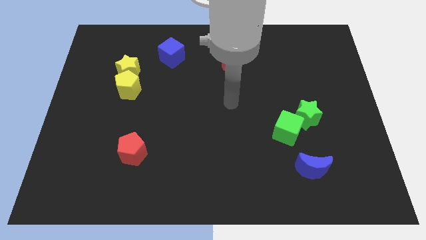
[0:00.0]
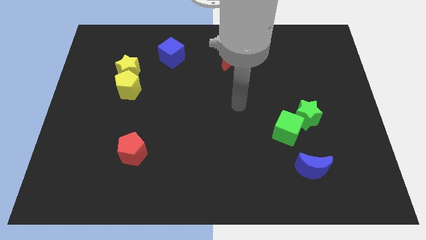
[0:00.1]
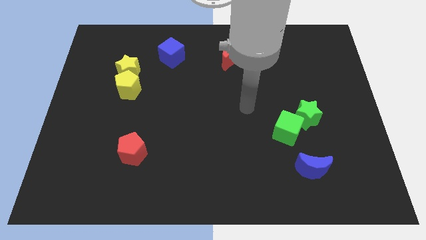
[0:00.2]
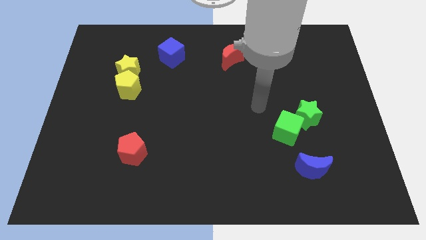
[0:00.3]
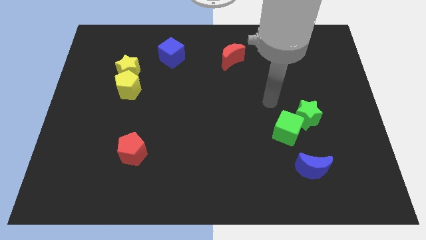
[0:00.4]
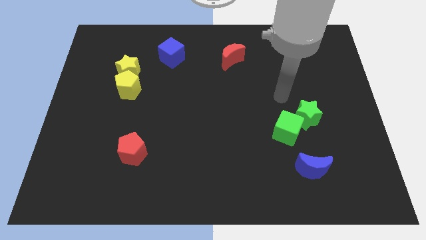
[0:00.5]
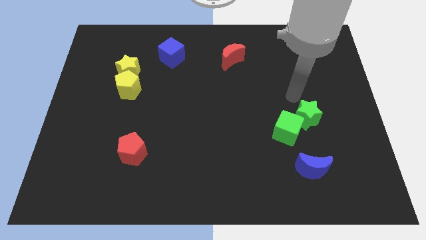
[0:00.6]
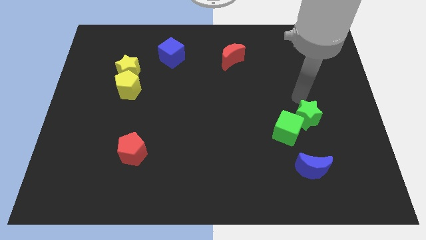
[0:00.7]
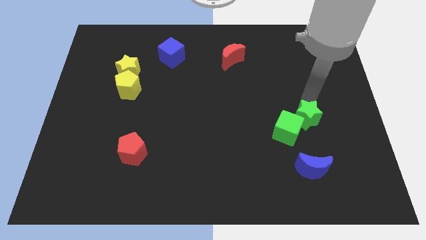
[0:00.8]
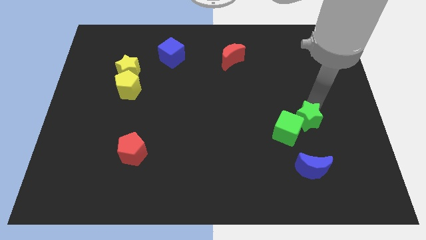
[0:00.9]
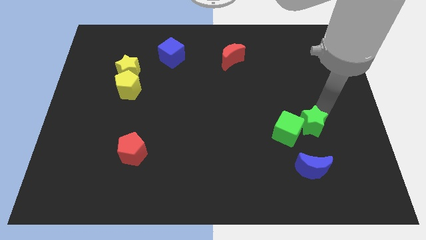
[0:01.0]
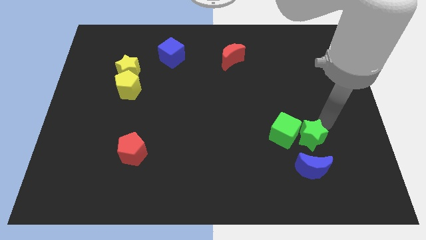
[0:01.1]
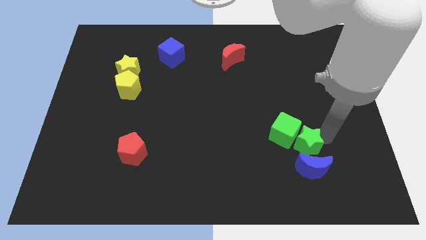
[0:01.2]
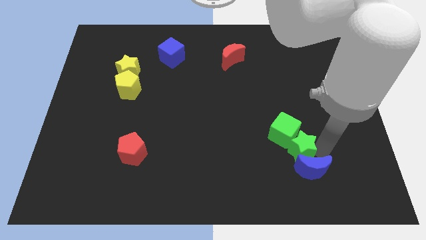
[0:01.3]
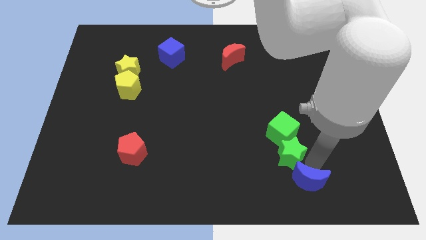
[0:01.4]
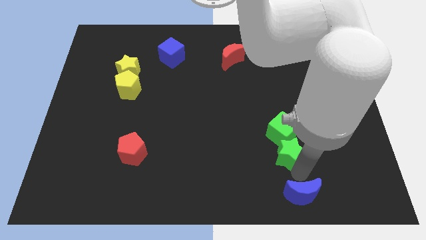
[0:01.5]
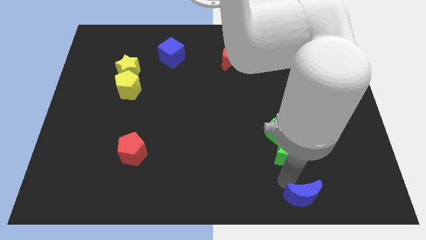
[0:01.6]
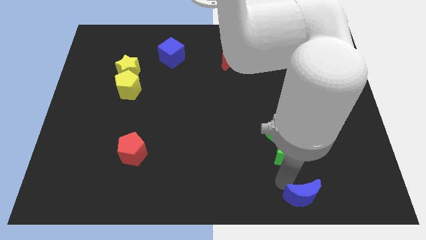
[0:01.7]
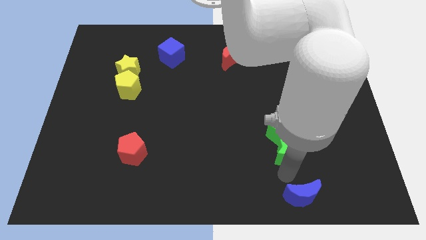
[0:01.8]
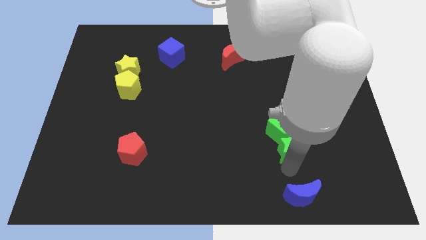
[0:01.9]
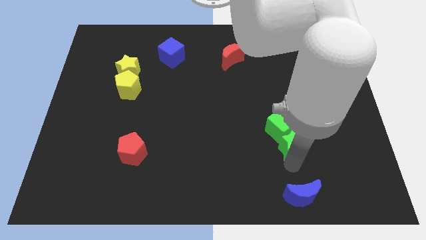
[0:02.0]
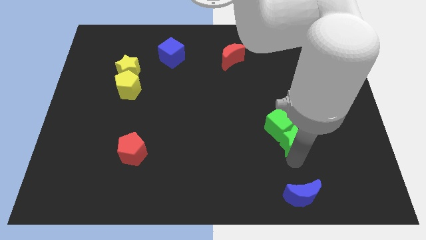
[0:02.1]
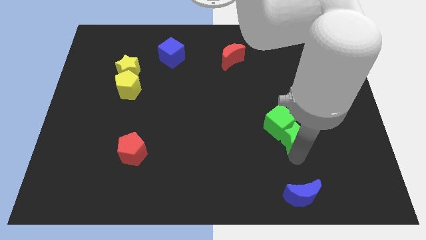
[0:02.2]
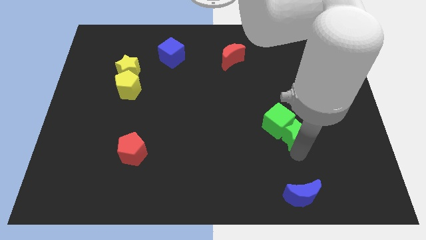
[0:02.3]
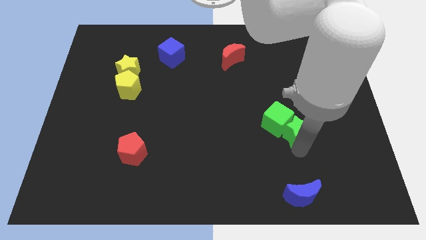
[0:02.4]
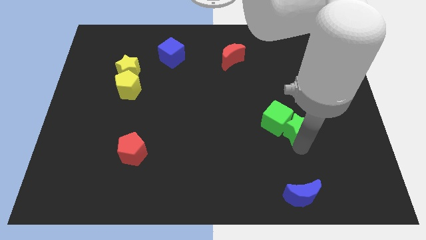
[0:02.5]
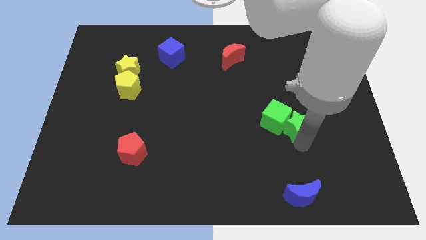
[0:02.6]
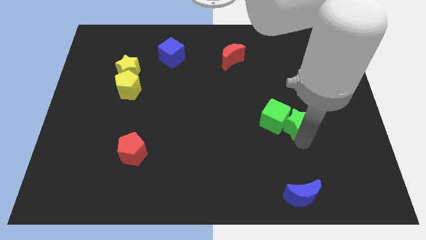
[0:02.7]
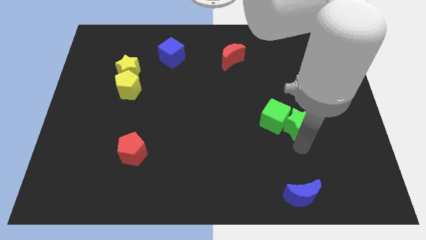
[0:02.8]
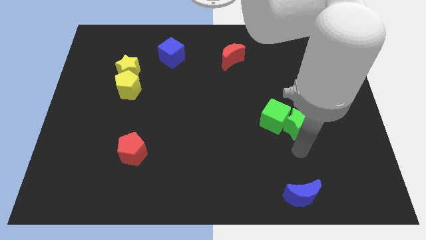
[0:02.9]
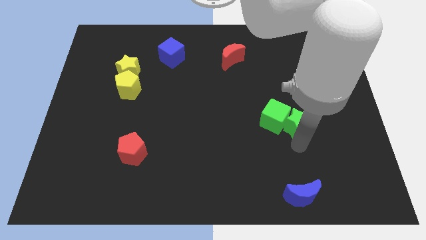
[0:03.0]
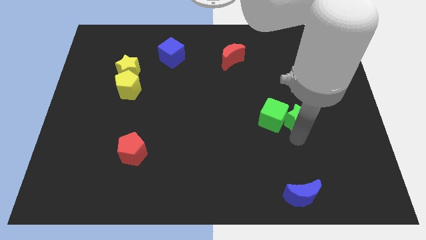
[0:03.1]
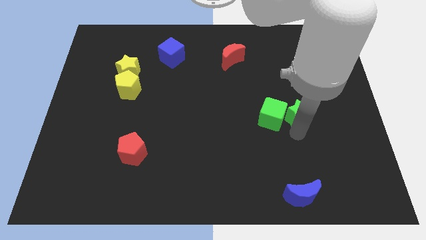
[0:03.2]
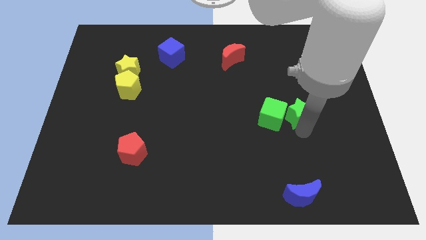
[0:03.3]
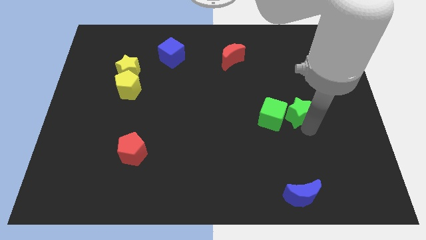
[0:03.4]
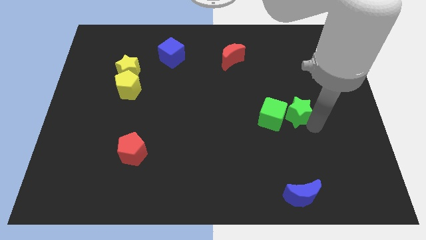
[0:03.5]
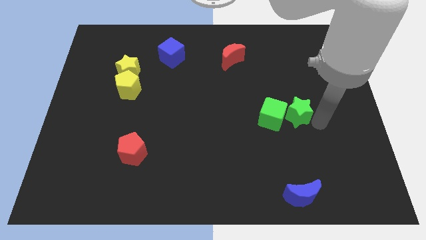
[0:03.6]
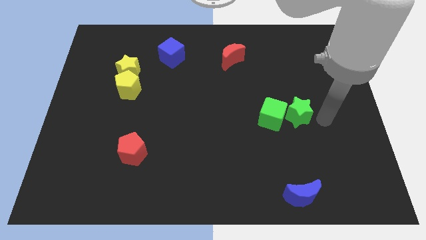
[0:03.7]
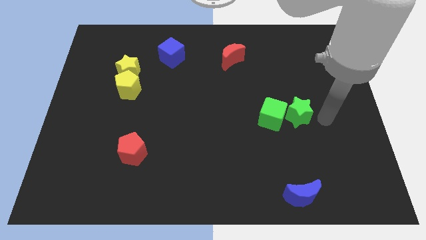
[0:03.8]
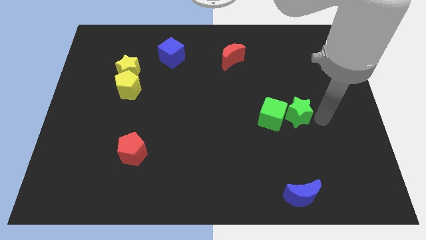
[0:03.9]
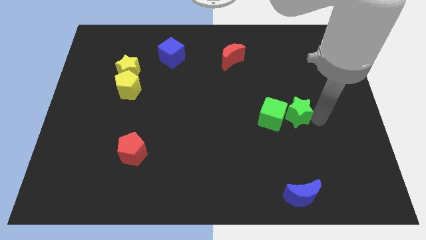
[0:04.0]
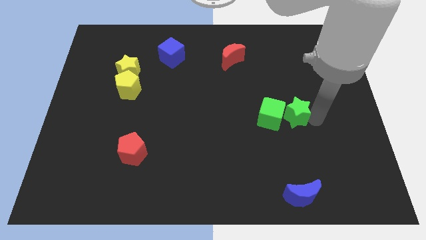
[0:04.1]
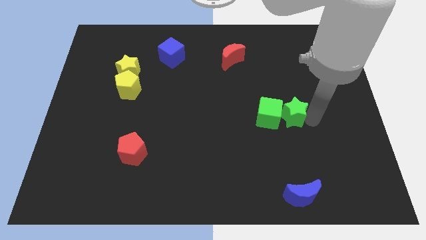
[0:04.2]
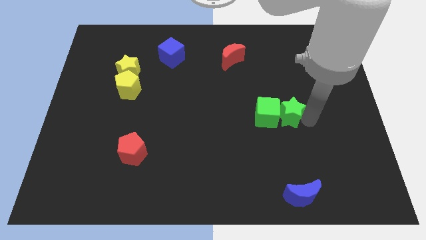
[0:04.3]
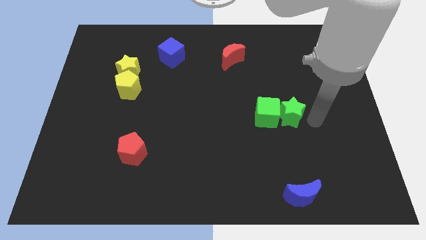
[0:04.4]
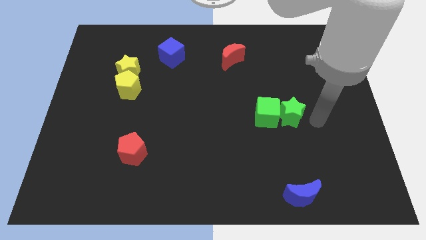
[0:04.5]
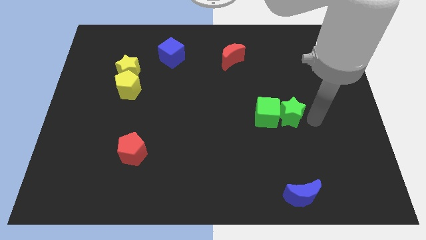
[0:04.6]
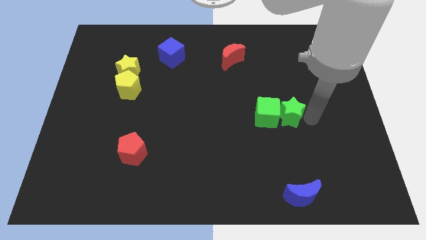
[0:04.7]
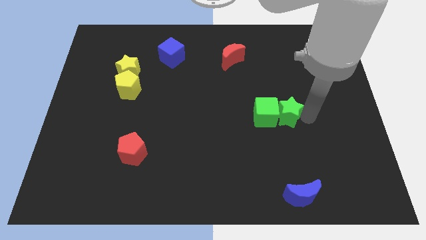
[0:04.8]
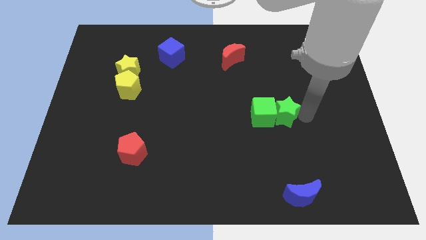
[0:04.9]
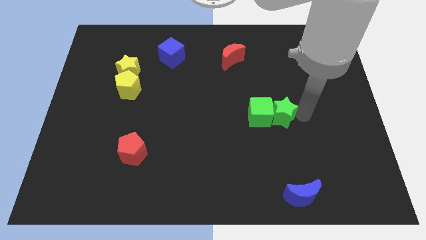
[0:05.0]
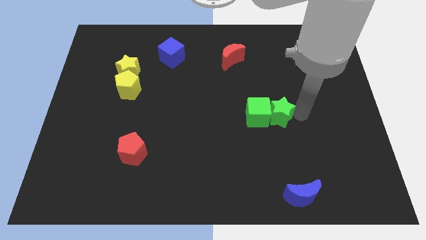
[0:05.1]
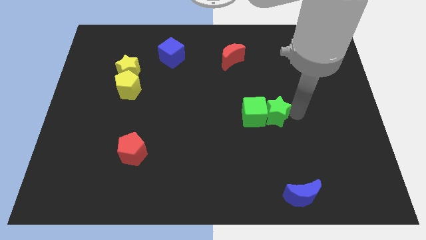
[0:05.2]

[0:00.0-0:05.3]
move the green star left a little

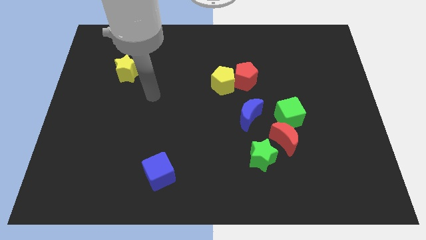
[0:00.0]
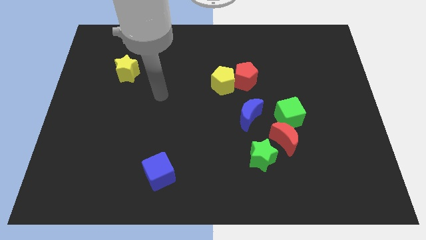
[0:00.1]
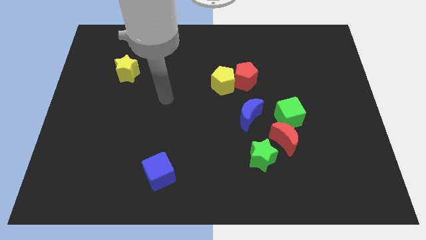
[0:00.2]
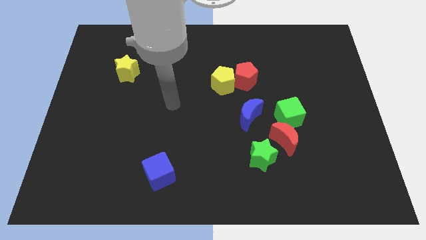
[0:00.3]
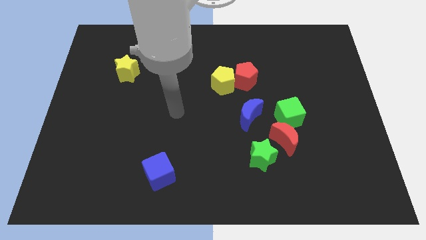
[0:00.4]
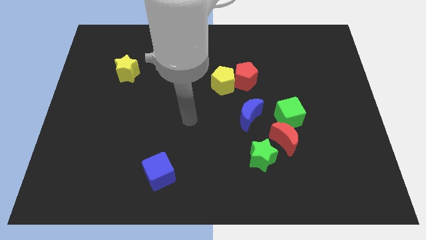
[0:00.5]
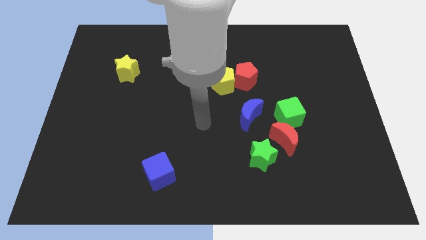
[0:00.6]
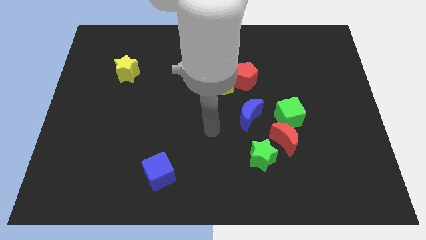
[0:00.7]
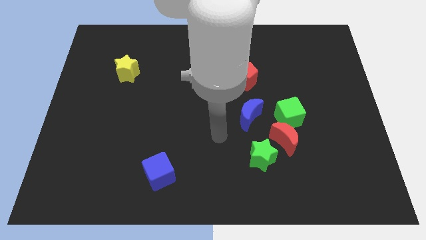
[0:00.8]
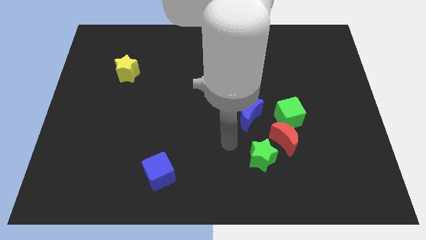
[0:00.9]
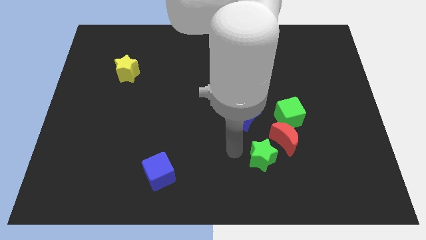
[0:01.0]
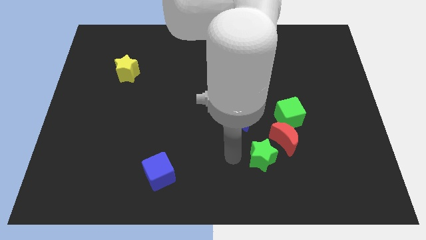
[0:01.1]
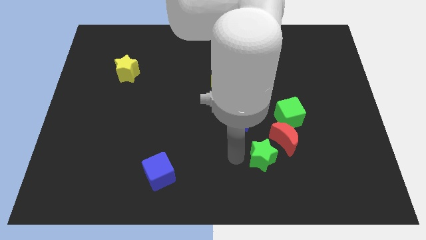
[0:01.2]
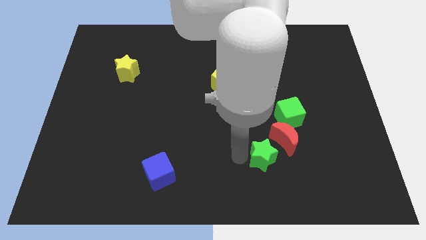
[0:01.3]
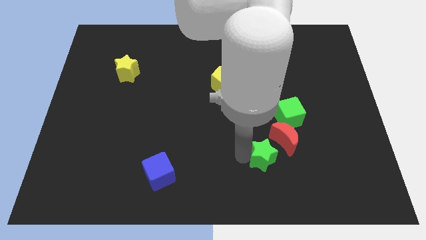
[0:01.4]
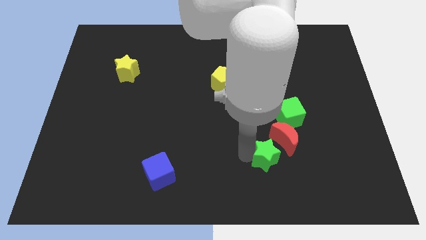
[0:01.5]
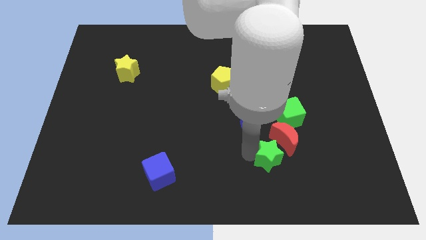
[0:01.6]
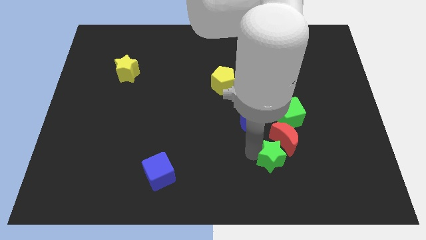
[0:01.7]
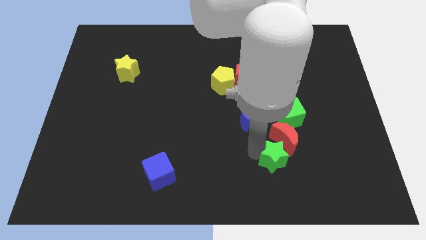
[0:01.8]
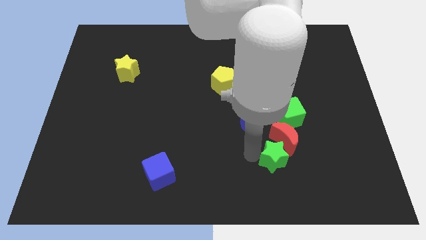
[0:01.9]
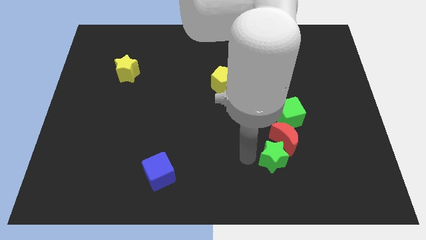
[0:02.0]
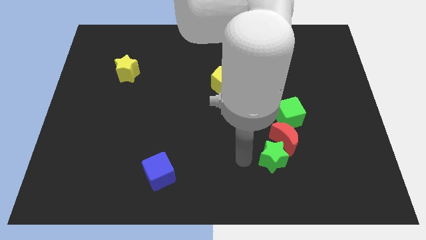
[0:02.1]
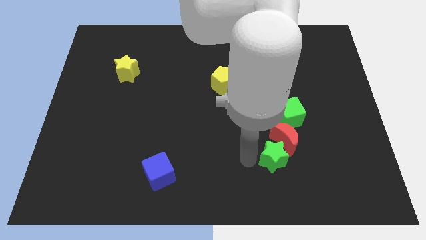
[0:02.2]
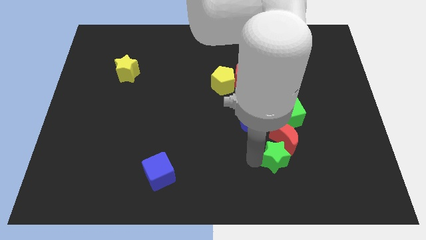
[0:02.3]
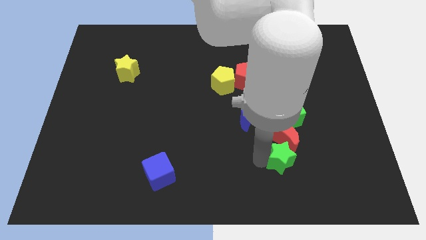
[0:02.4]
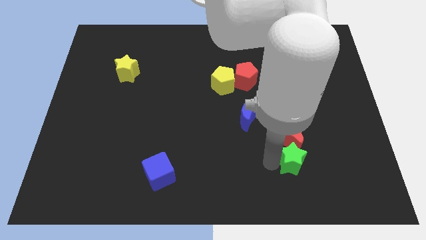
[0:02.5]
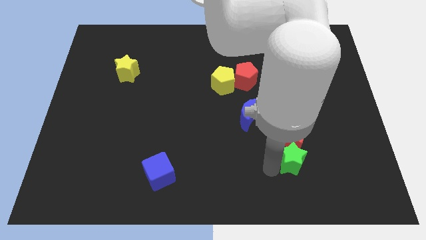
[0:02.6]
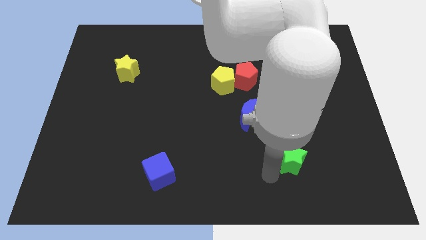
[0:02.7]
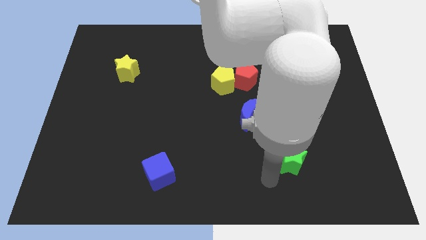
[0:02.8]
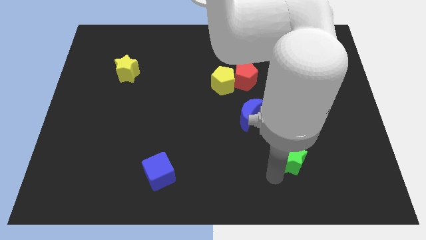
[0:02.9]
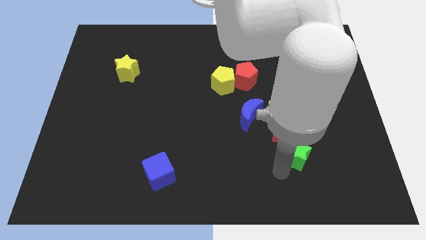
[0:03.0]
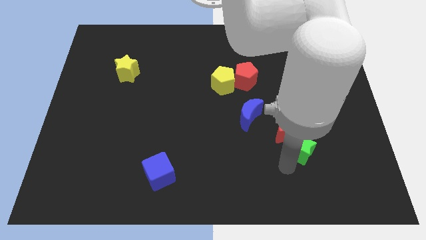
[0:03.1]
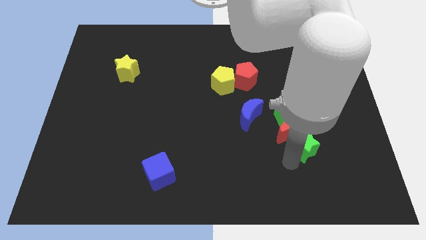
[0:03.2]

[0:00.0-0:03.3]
slide the green star a bit upwards and then right
